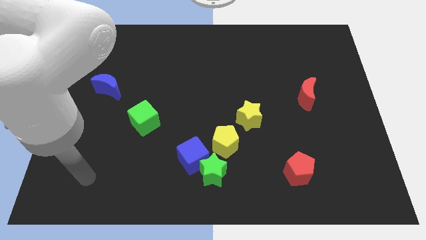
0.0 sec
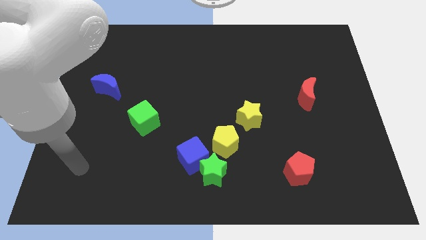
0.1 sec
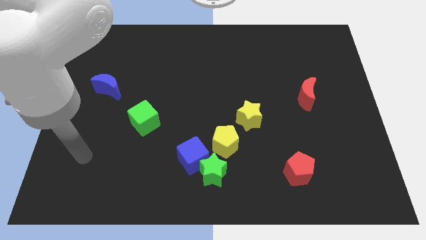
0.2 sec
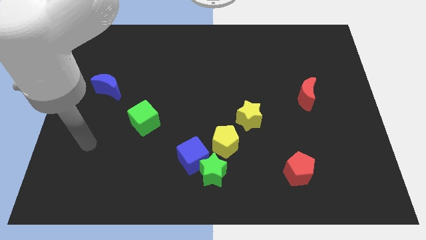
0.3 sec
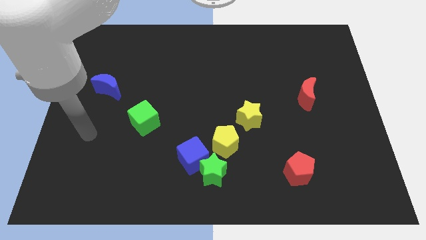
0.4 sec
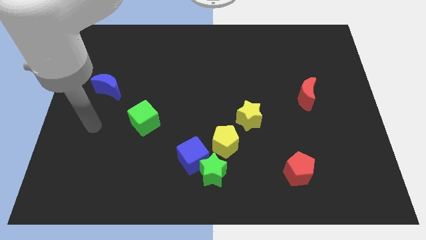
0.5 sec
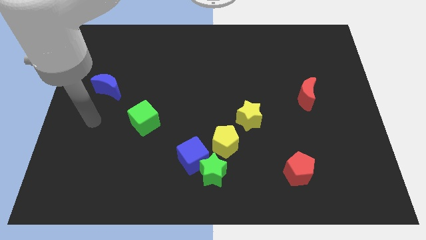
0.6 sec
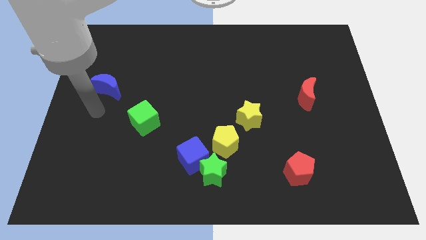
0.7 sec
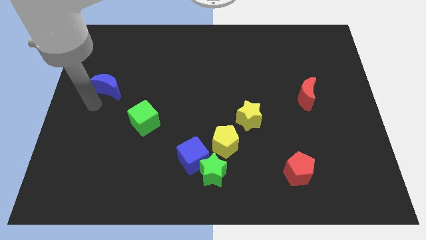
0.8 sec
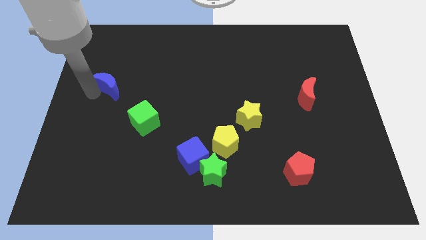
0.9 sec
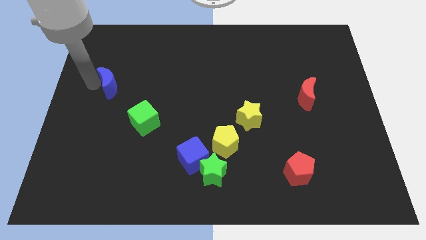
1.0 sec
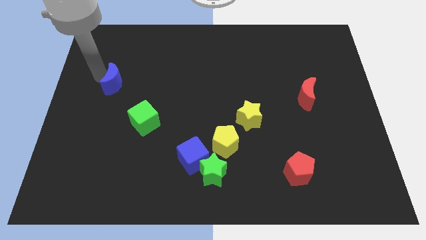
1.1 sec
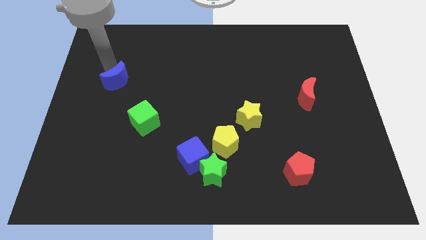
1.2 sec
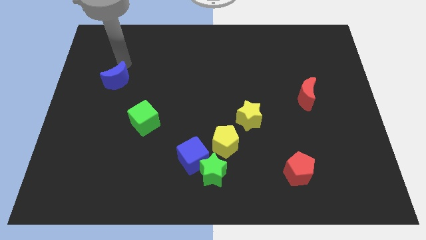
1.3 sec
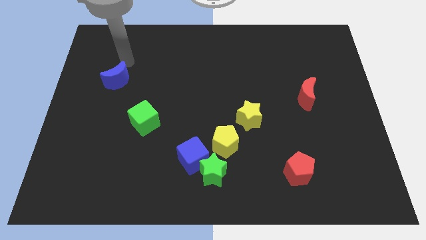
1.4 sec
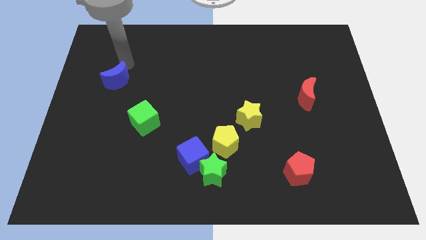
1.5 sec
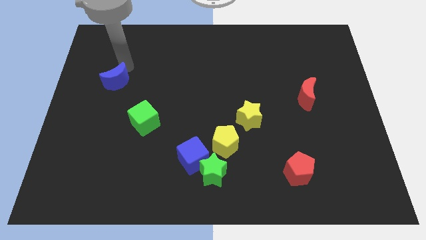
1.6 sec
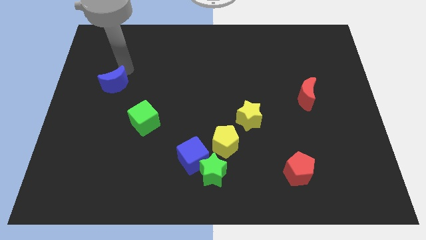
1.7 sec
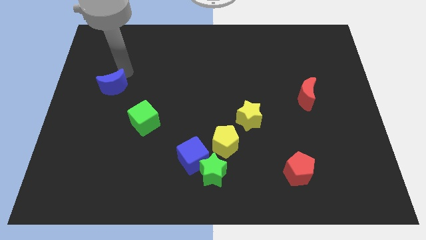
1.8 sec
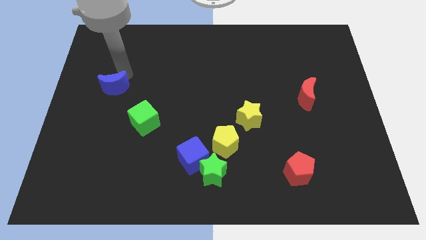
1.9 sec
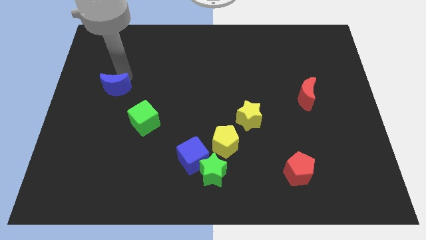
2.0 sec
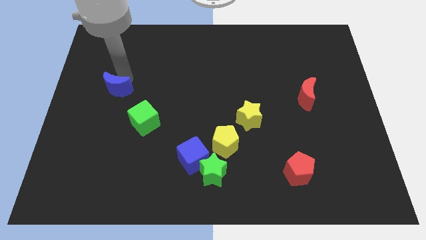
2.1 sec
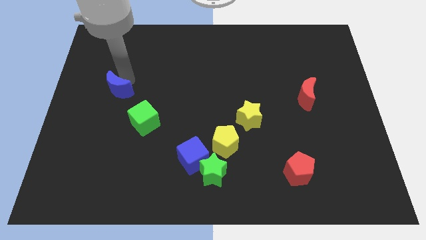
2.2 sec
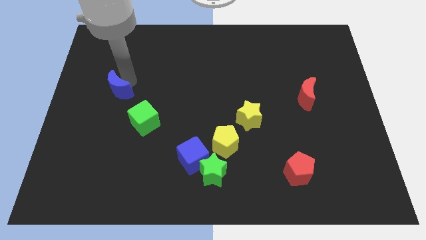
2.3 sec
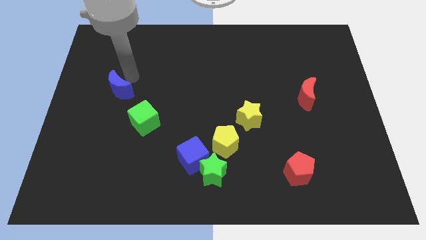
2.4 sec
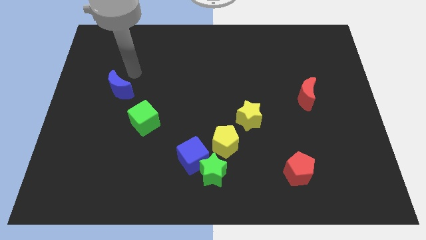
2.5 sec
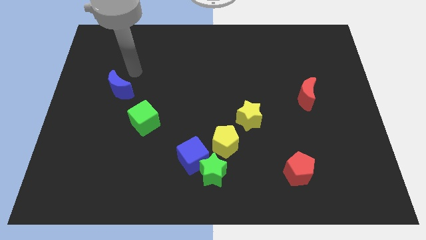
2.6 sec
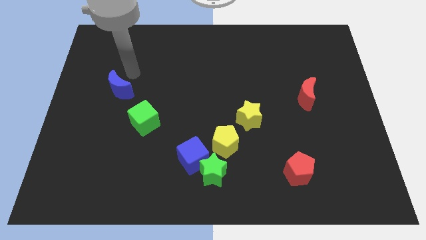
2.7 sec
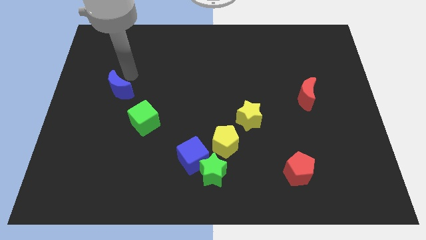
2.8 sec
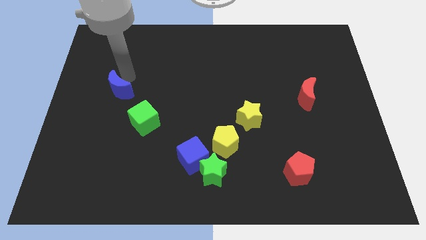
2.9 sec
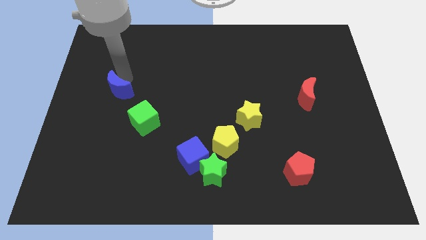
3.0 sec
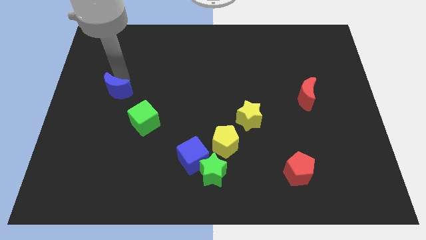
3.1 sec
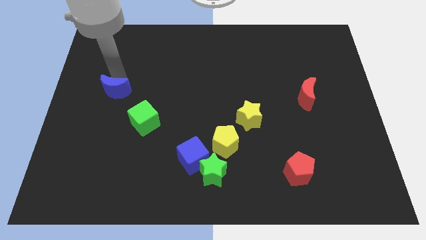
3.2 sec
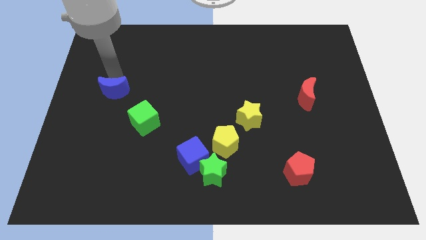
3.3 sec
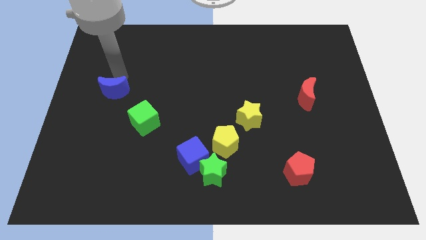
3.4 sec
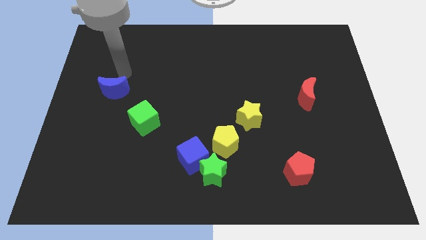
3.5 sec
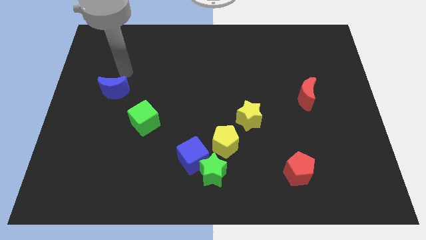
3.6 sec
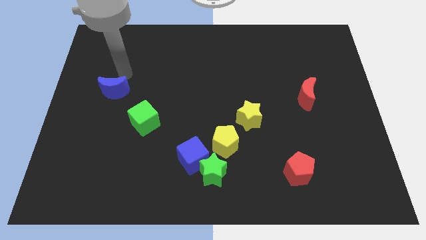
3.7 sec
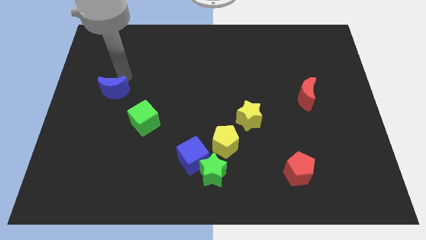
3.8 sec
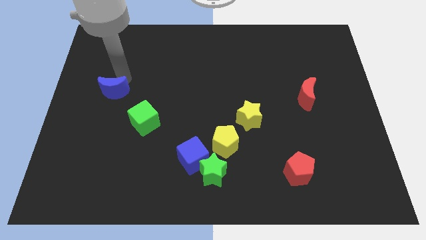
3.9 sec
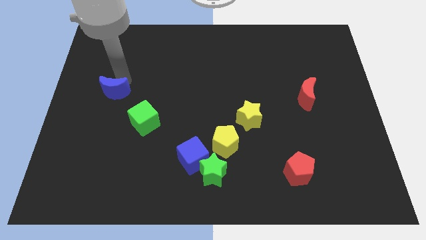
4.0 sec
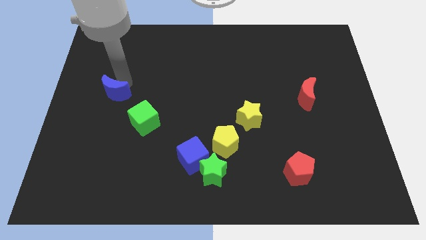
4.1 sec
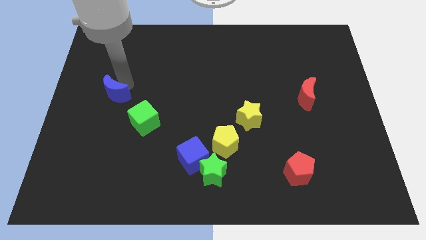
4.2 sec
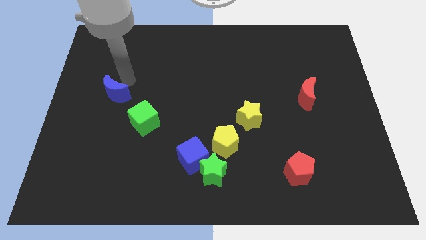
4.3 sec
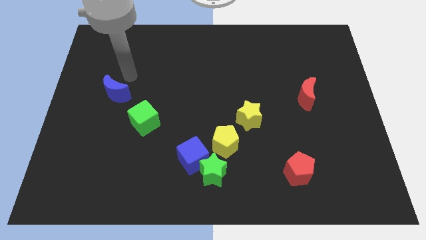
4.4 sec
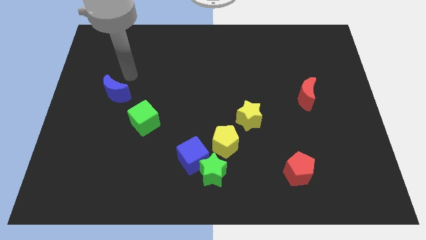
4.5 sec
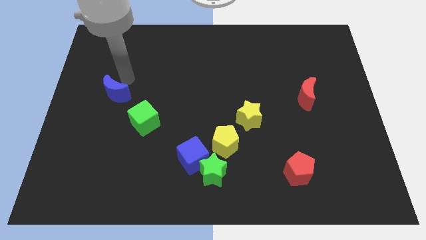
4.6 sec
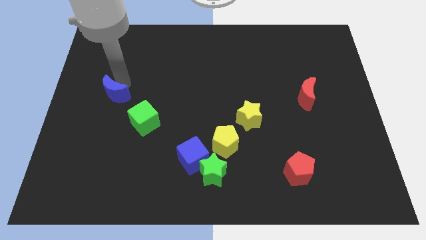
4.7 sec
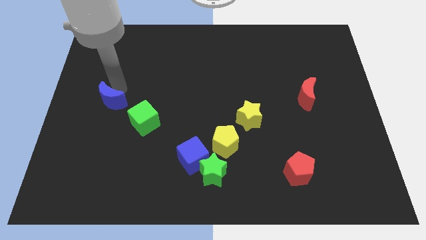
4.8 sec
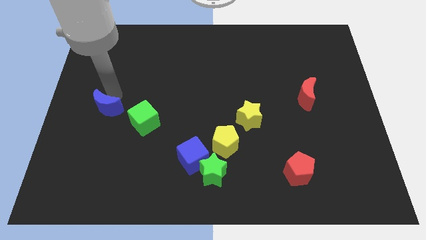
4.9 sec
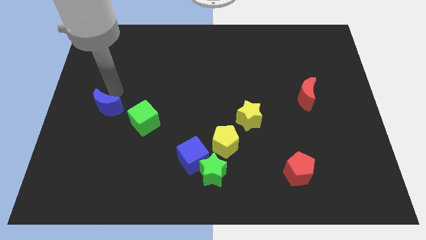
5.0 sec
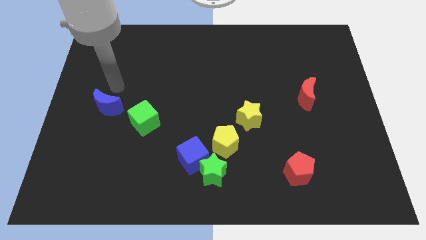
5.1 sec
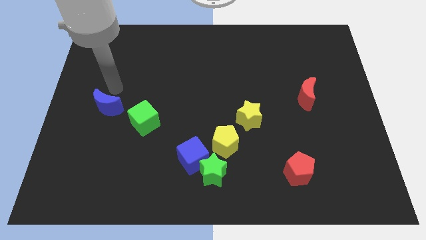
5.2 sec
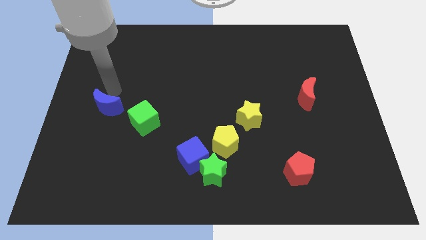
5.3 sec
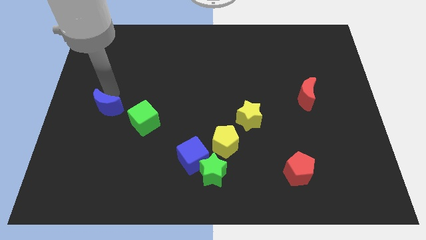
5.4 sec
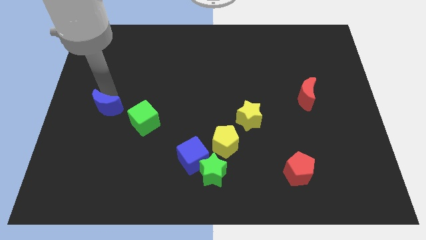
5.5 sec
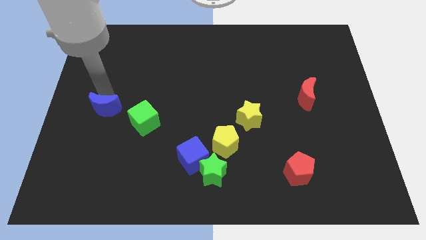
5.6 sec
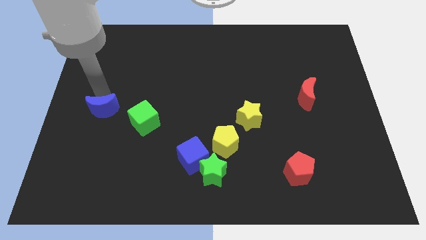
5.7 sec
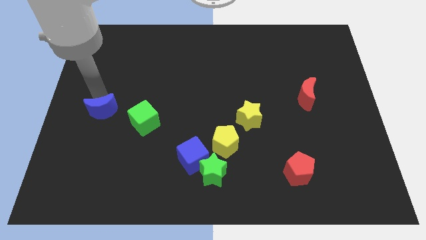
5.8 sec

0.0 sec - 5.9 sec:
slide the blue moon downwards somewhat

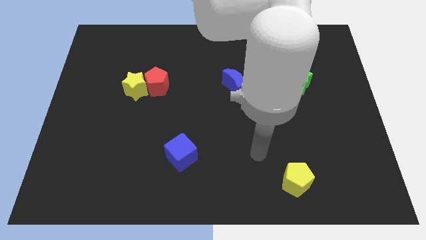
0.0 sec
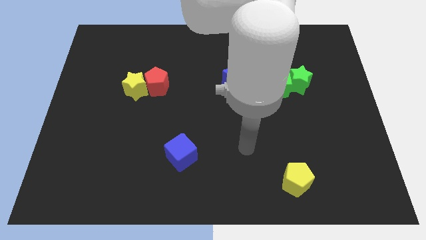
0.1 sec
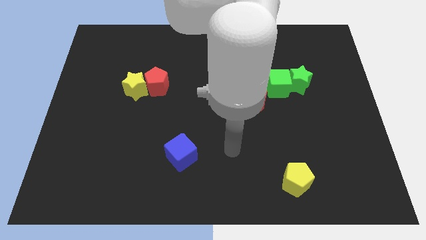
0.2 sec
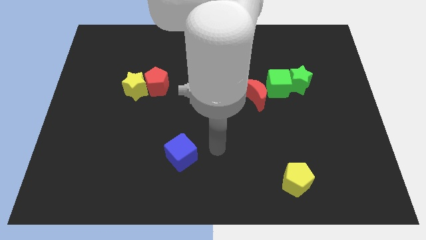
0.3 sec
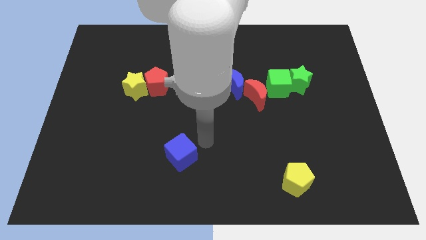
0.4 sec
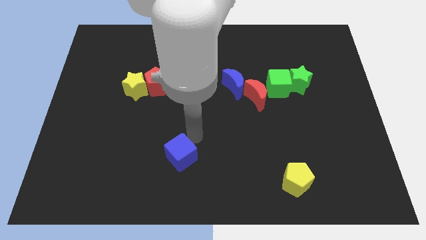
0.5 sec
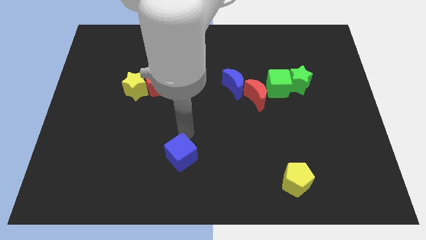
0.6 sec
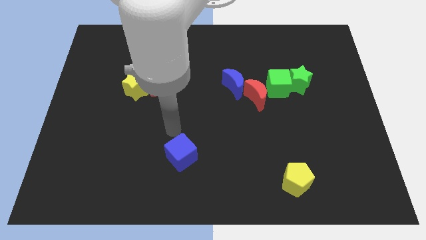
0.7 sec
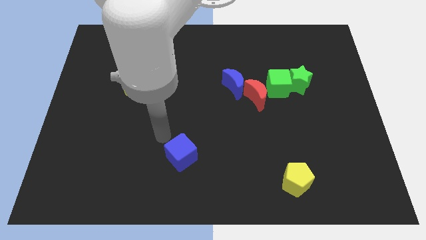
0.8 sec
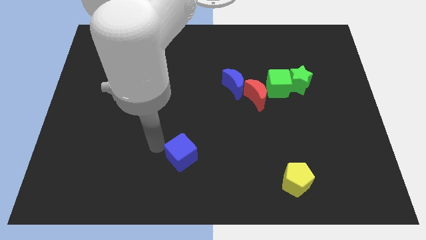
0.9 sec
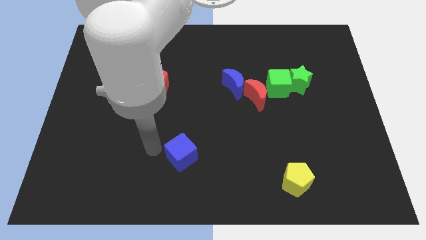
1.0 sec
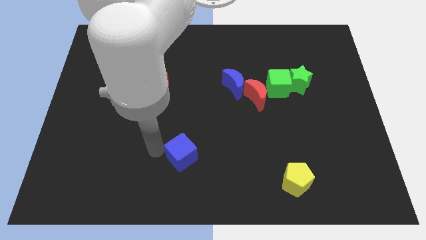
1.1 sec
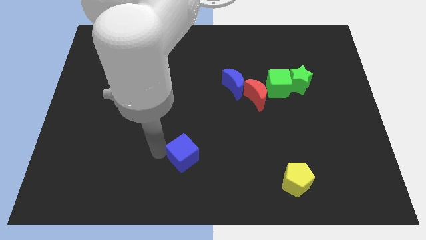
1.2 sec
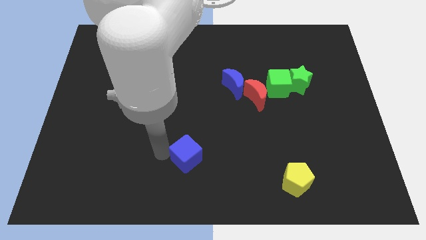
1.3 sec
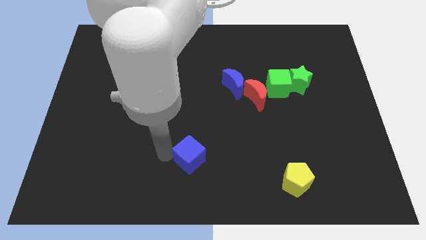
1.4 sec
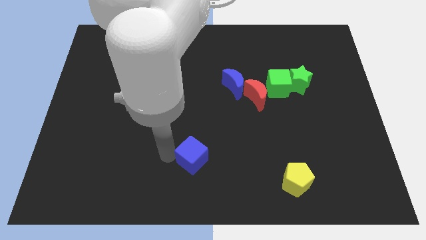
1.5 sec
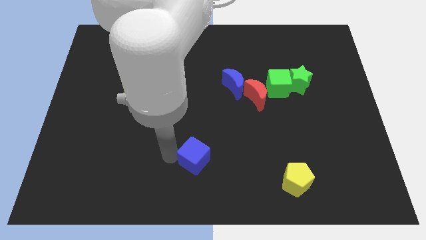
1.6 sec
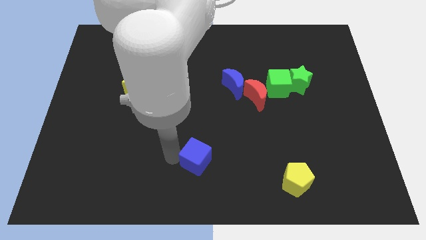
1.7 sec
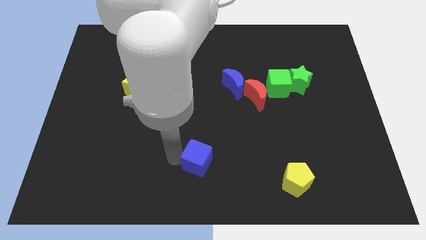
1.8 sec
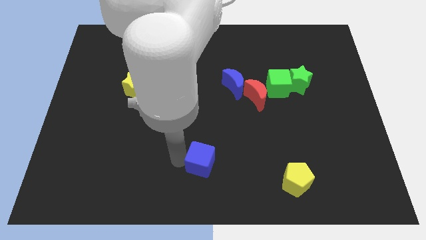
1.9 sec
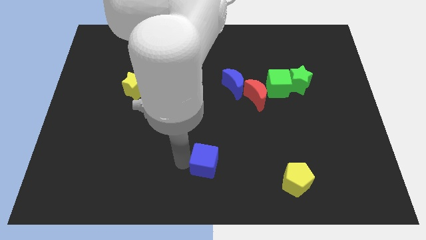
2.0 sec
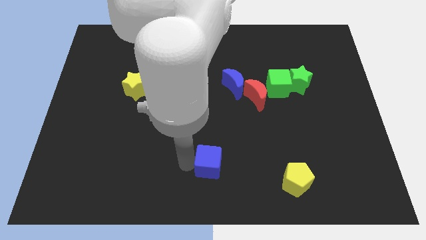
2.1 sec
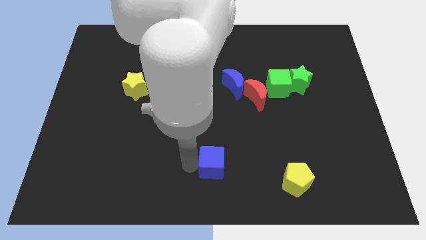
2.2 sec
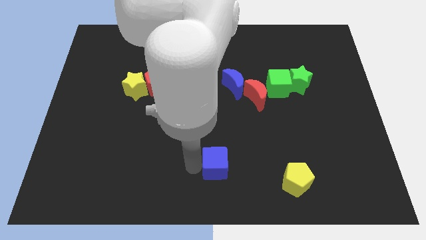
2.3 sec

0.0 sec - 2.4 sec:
slide the blue cube to the right somewhat
